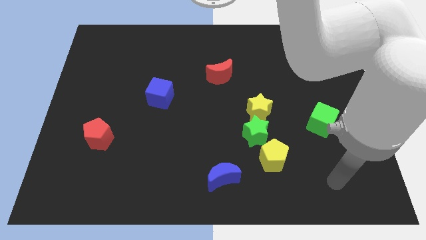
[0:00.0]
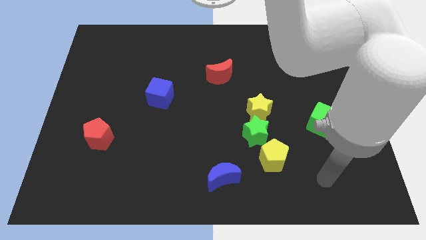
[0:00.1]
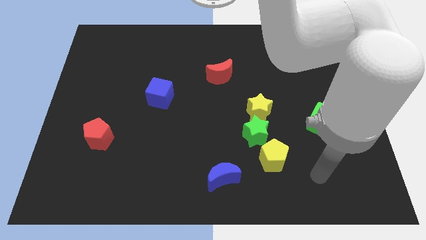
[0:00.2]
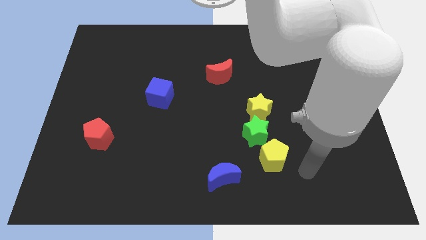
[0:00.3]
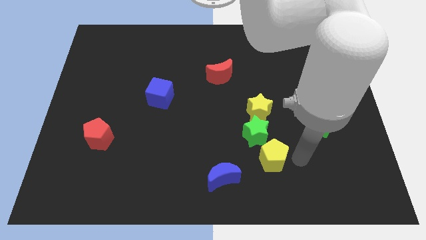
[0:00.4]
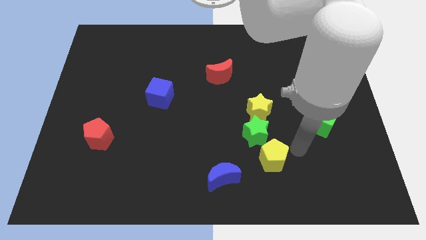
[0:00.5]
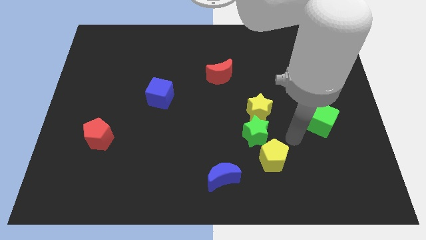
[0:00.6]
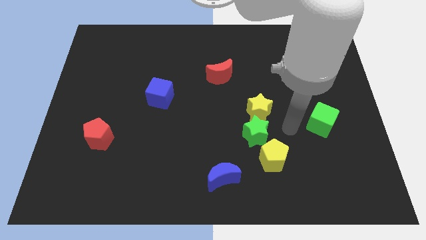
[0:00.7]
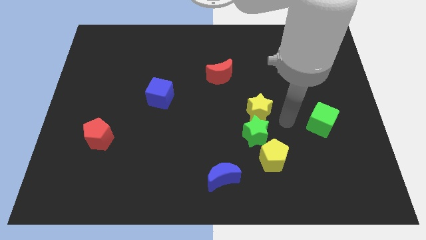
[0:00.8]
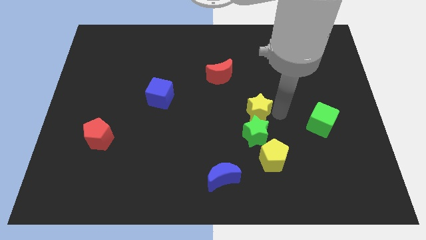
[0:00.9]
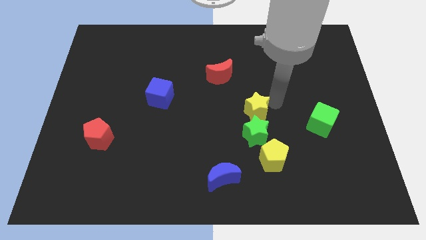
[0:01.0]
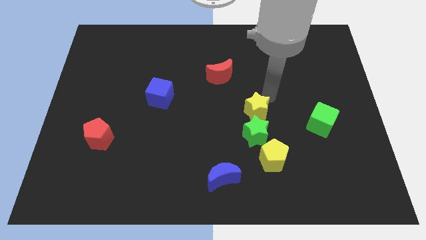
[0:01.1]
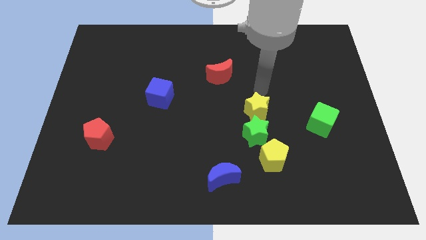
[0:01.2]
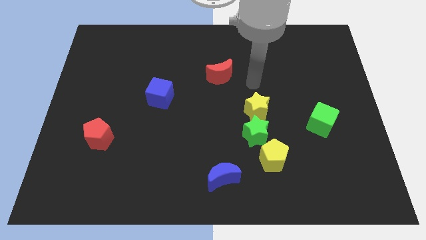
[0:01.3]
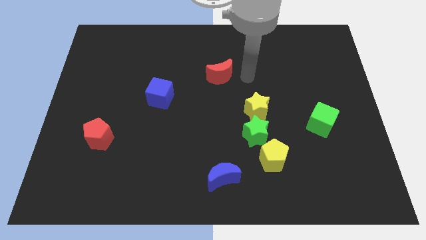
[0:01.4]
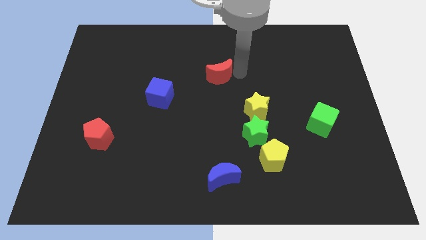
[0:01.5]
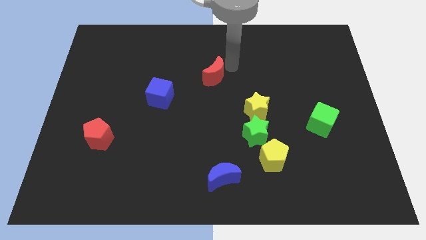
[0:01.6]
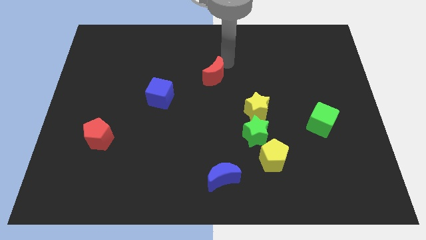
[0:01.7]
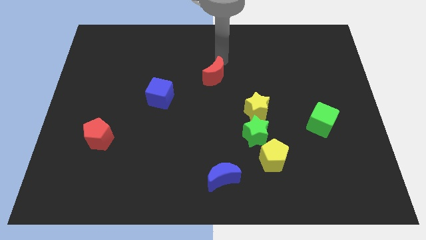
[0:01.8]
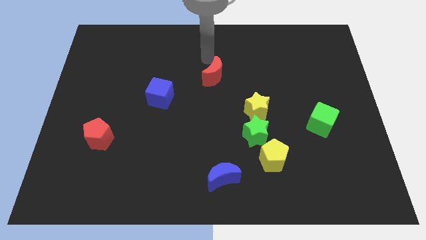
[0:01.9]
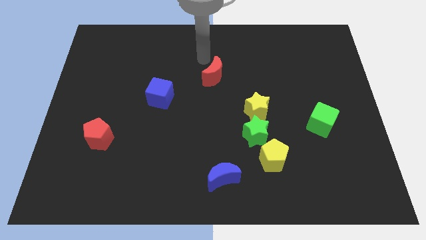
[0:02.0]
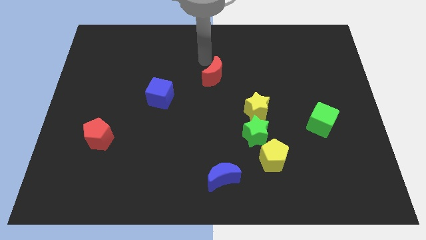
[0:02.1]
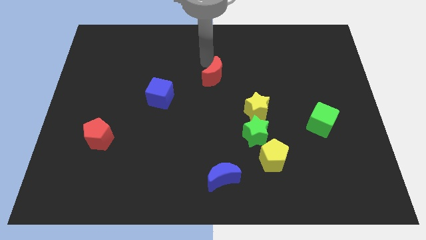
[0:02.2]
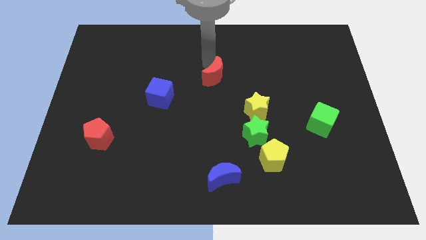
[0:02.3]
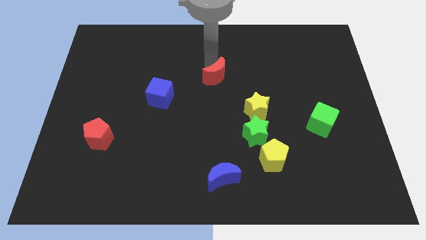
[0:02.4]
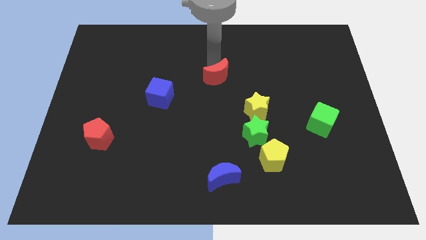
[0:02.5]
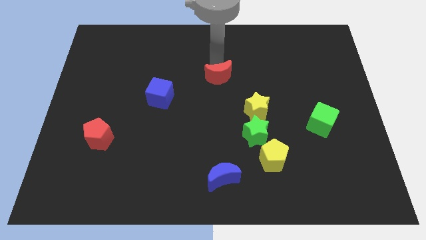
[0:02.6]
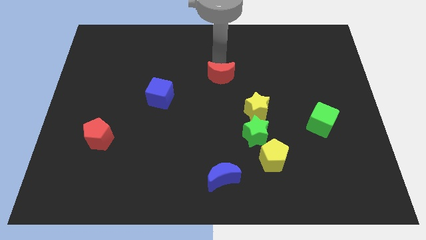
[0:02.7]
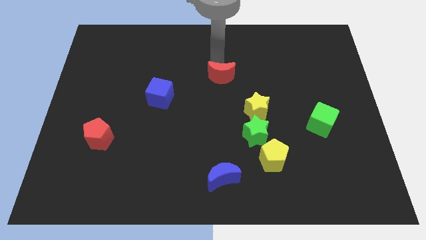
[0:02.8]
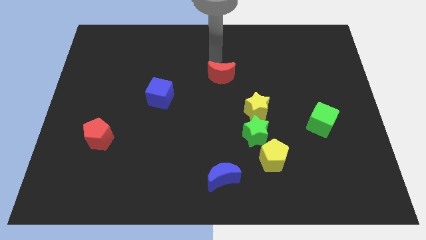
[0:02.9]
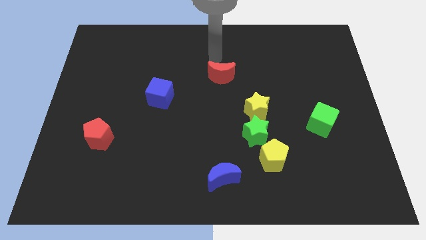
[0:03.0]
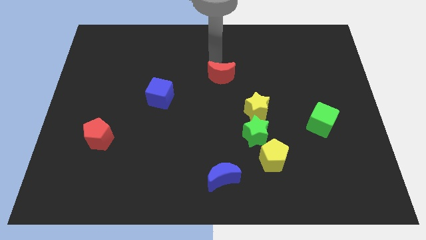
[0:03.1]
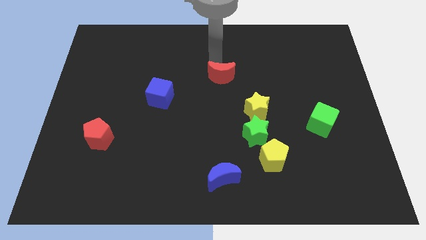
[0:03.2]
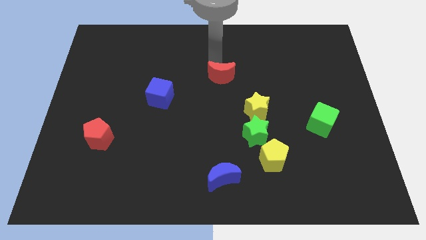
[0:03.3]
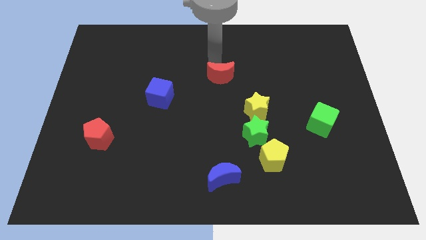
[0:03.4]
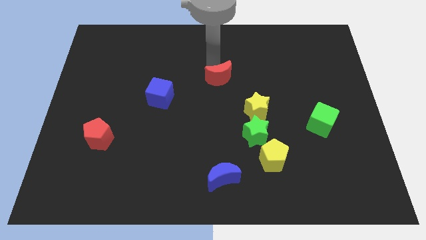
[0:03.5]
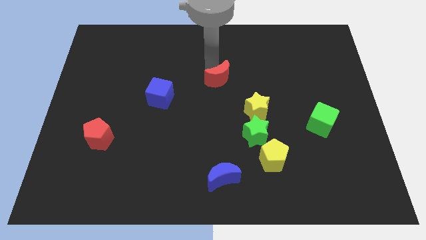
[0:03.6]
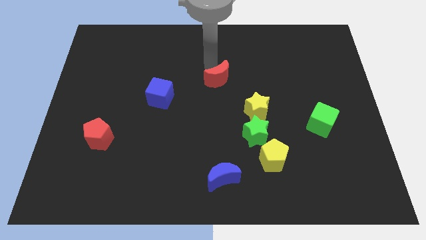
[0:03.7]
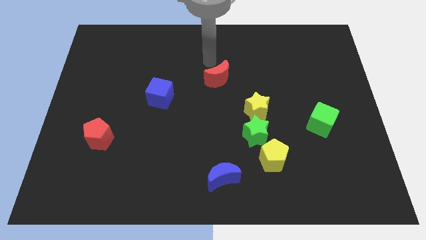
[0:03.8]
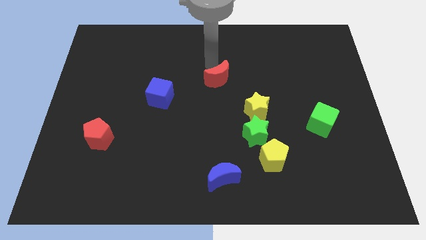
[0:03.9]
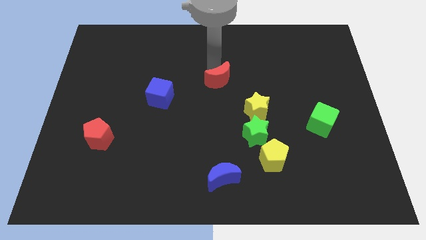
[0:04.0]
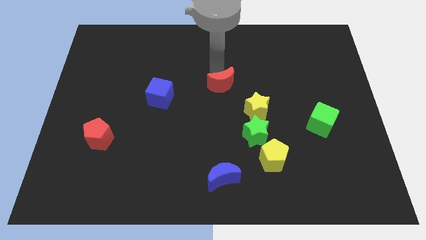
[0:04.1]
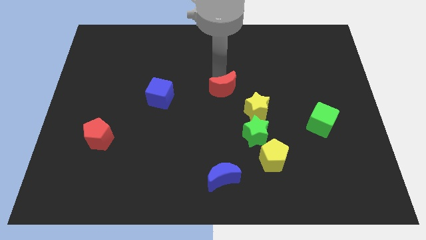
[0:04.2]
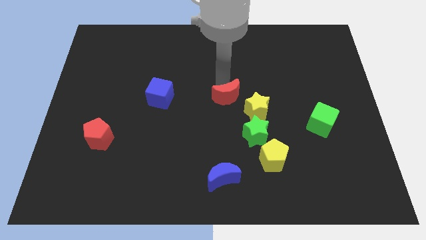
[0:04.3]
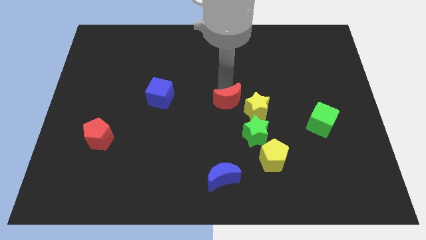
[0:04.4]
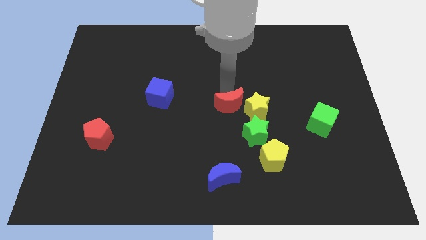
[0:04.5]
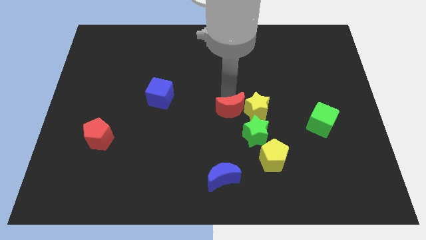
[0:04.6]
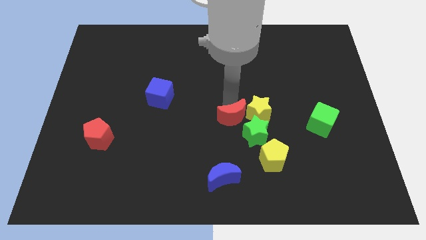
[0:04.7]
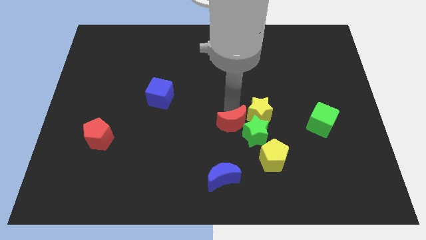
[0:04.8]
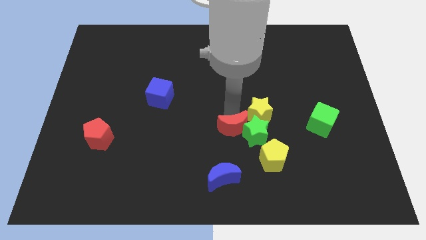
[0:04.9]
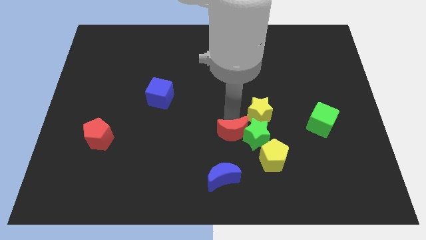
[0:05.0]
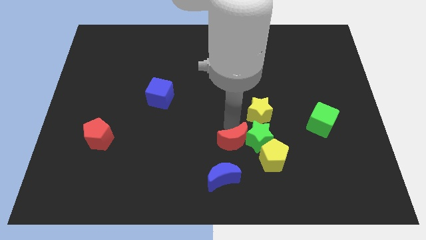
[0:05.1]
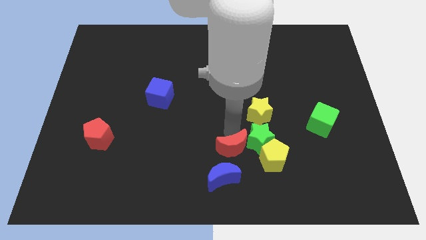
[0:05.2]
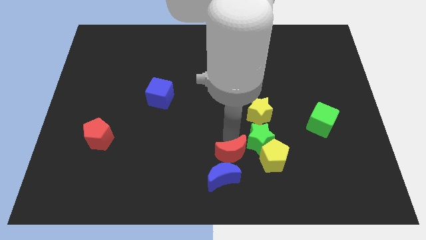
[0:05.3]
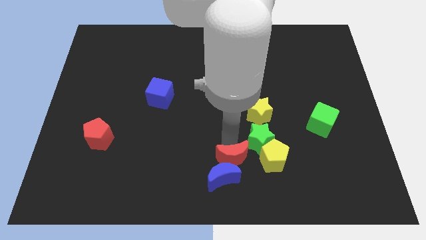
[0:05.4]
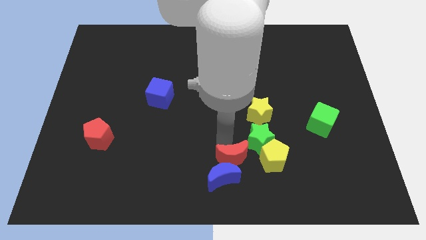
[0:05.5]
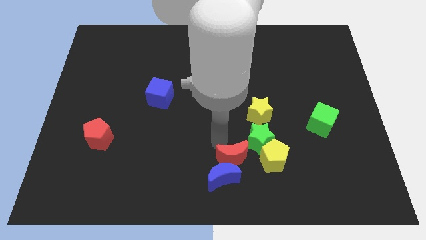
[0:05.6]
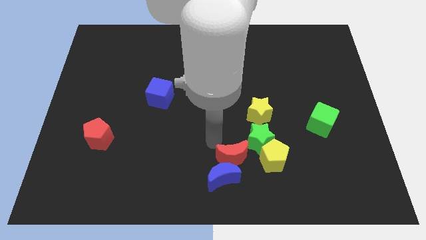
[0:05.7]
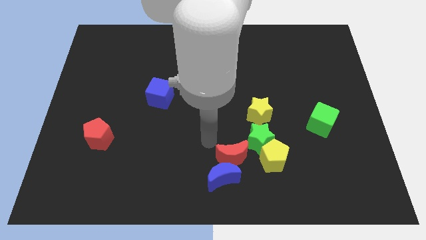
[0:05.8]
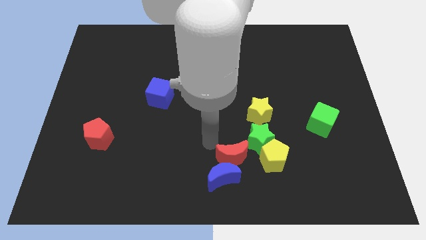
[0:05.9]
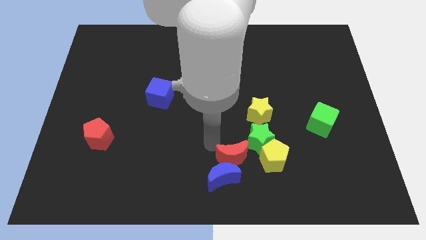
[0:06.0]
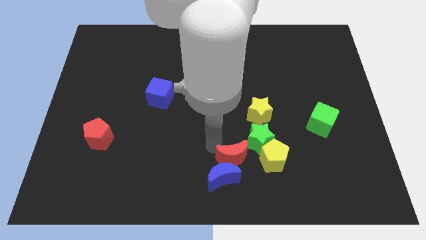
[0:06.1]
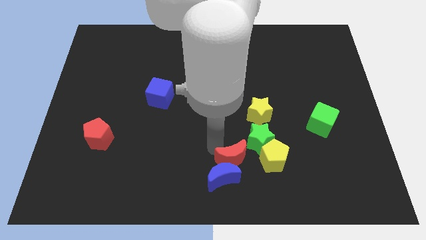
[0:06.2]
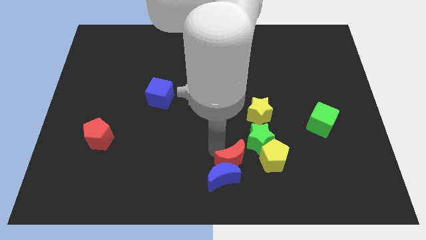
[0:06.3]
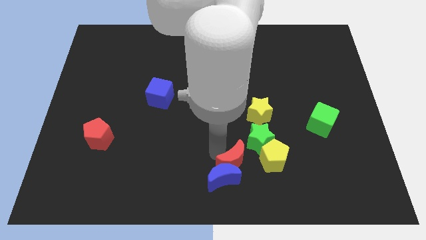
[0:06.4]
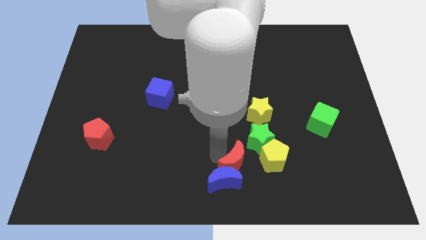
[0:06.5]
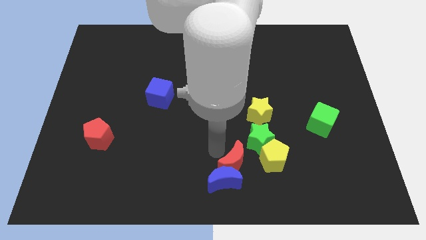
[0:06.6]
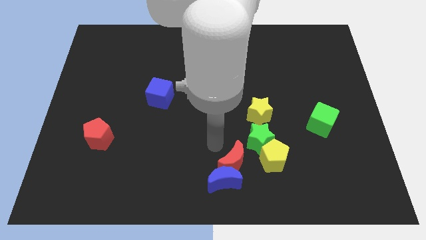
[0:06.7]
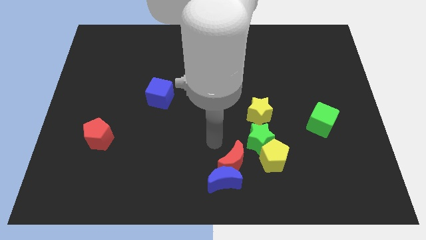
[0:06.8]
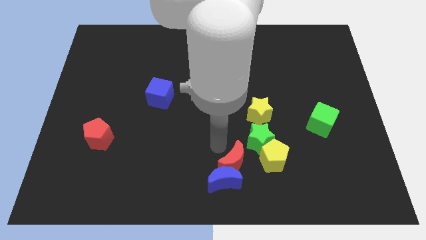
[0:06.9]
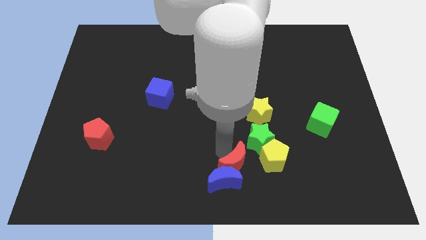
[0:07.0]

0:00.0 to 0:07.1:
move the red moon to the bottom left of the yellow pentagon
